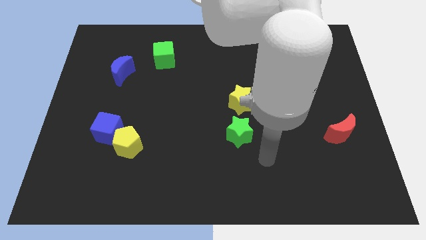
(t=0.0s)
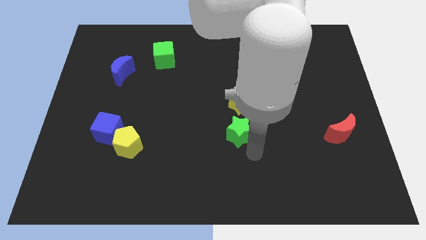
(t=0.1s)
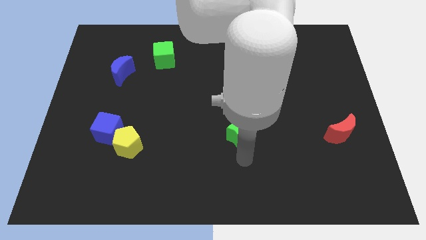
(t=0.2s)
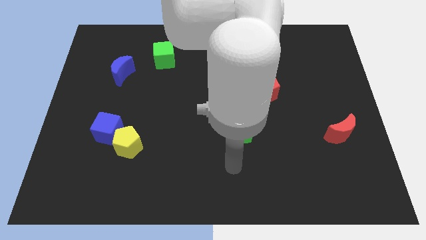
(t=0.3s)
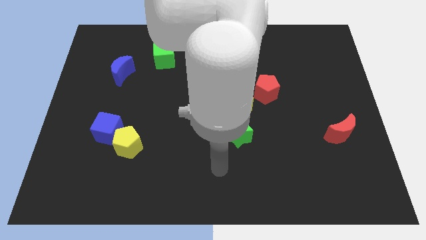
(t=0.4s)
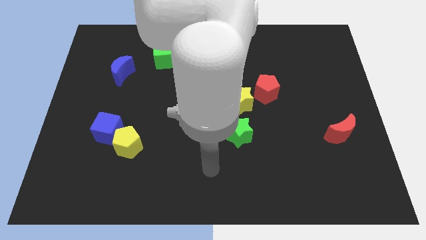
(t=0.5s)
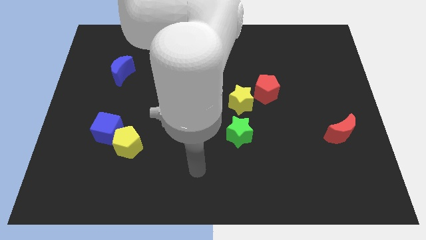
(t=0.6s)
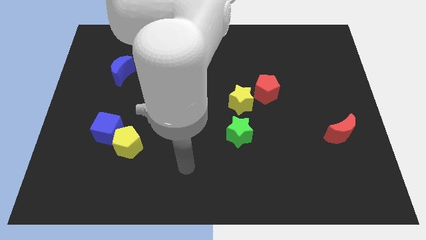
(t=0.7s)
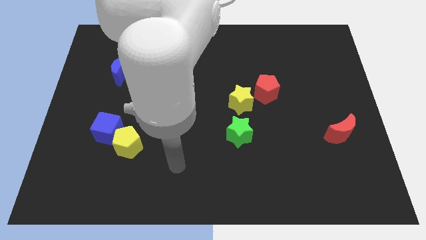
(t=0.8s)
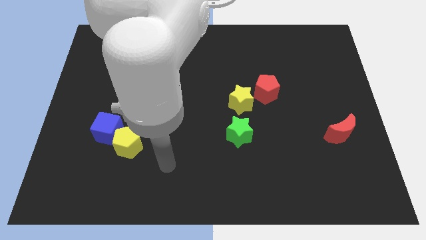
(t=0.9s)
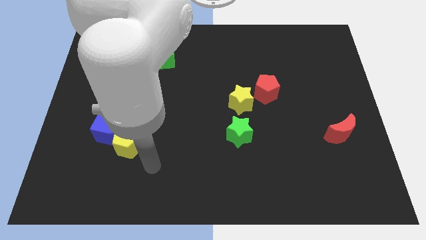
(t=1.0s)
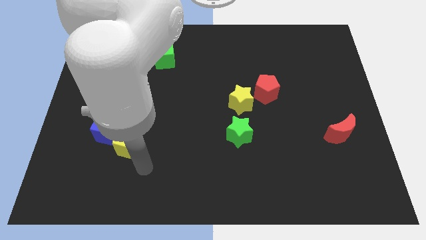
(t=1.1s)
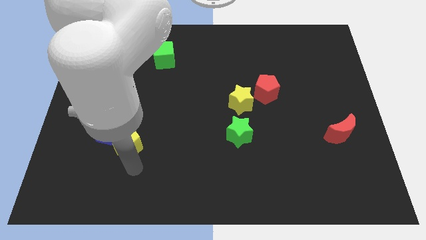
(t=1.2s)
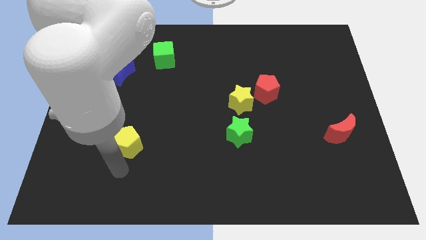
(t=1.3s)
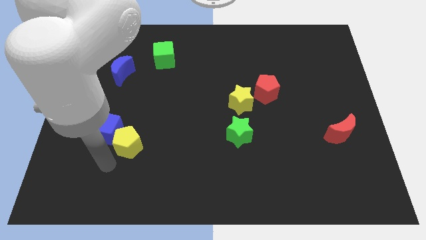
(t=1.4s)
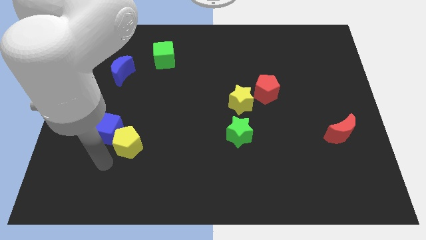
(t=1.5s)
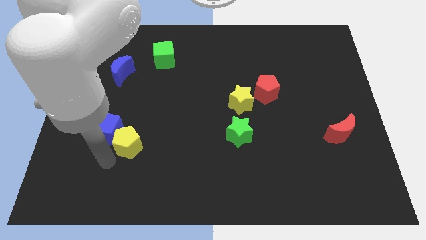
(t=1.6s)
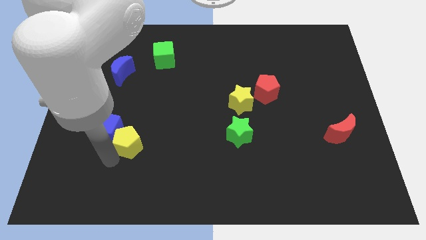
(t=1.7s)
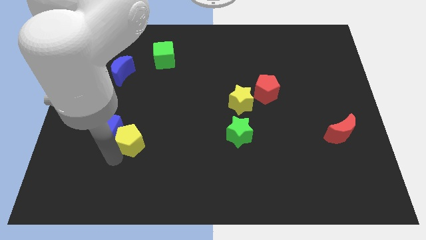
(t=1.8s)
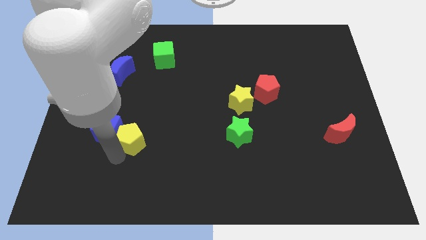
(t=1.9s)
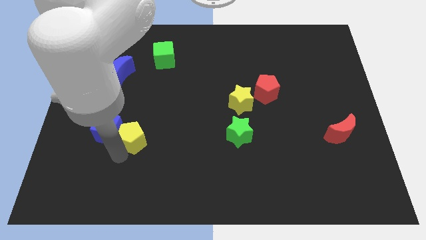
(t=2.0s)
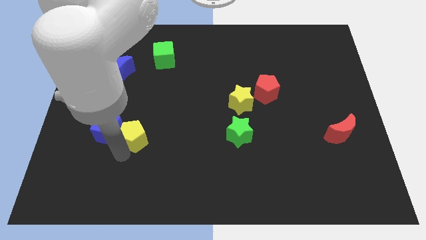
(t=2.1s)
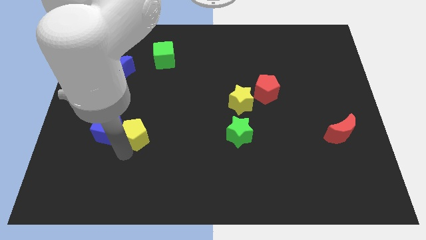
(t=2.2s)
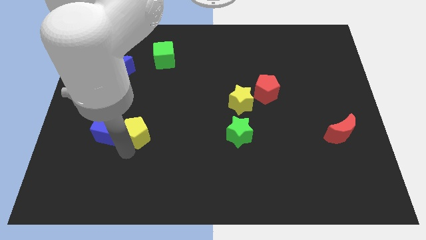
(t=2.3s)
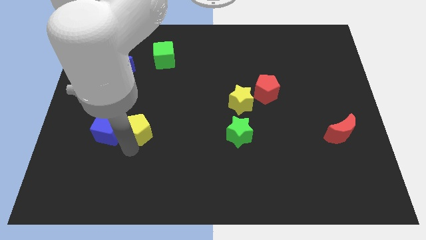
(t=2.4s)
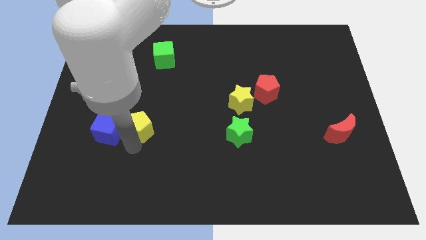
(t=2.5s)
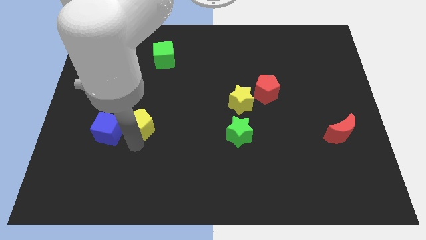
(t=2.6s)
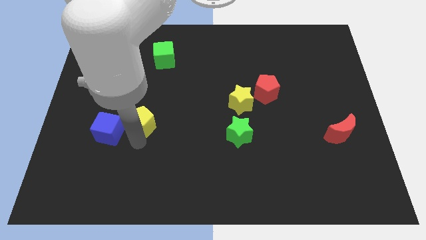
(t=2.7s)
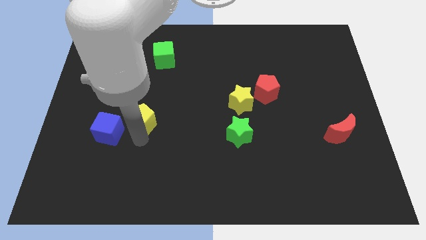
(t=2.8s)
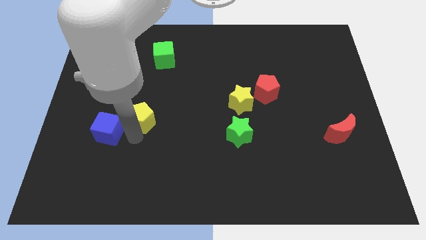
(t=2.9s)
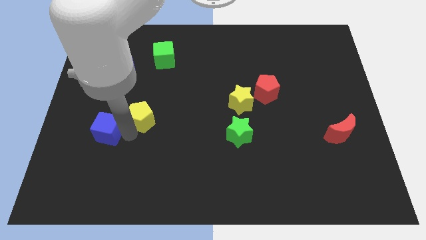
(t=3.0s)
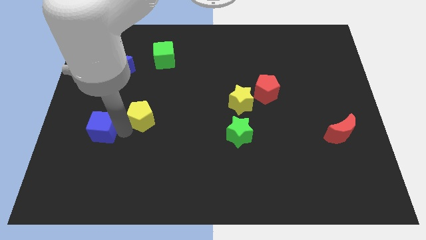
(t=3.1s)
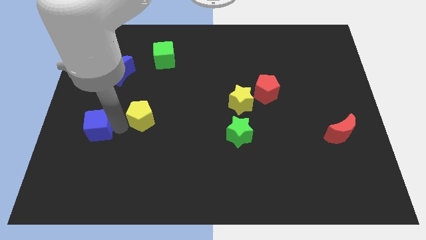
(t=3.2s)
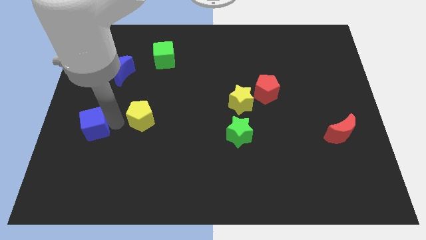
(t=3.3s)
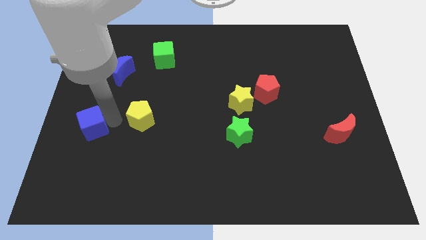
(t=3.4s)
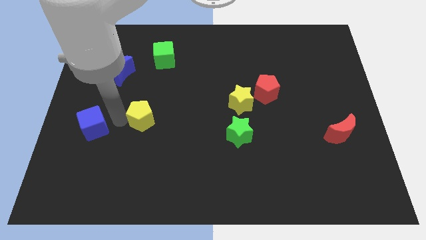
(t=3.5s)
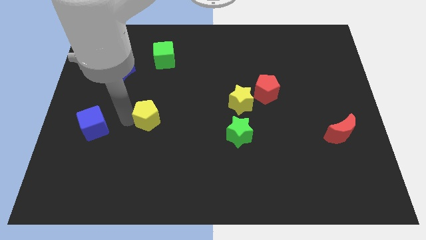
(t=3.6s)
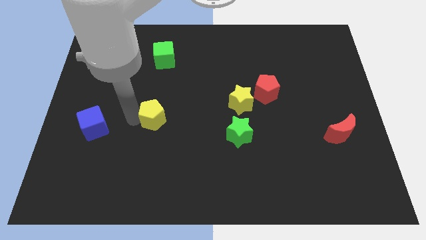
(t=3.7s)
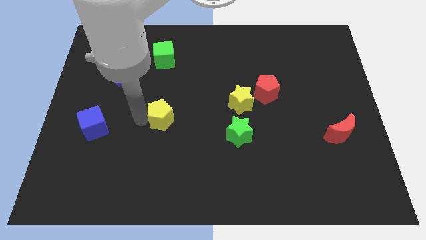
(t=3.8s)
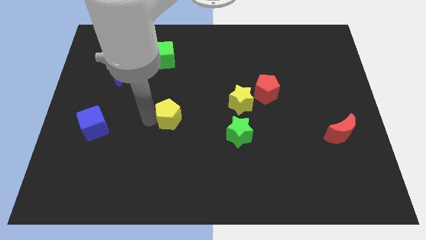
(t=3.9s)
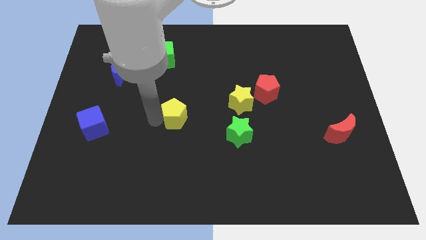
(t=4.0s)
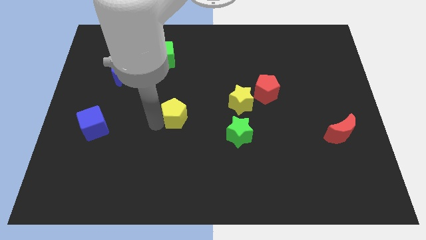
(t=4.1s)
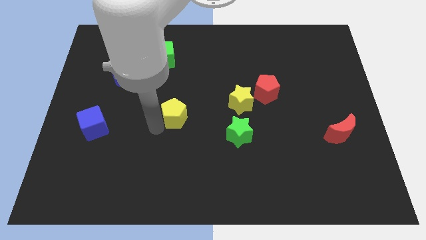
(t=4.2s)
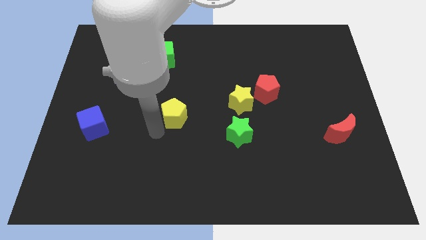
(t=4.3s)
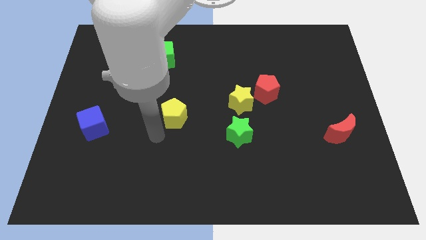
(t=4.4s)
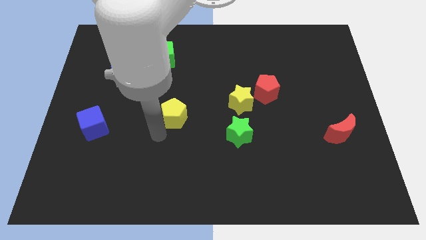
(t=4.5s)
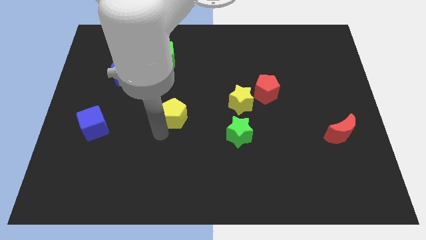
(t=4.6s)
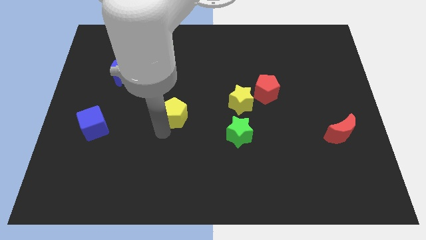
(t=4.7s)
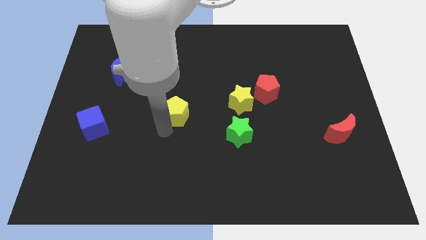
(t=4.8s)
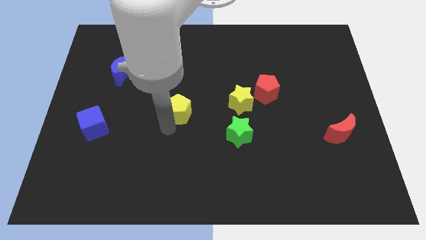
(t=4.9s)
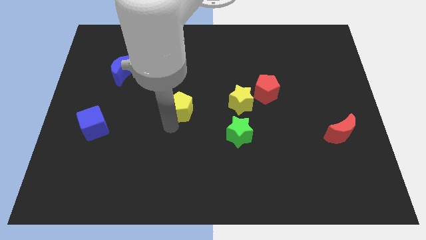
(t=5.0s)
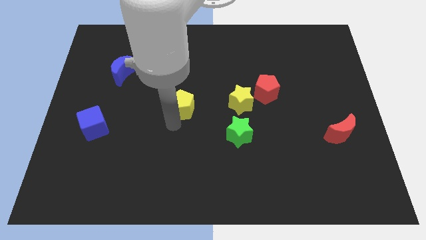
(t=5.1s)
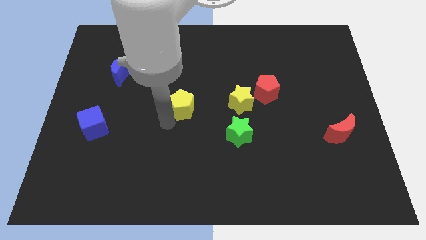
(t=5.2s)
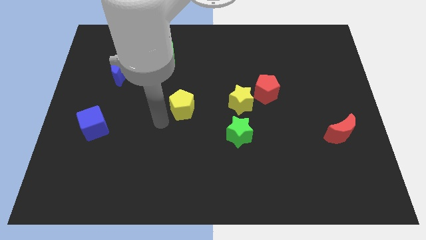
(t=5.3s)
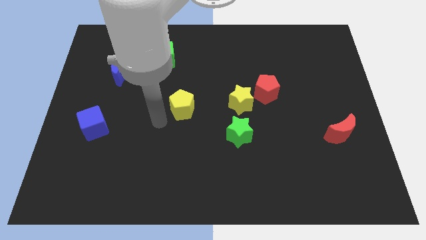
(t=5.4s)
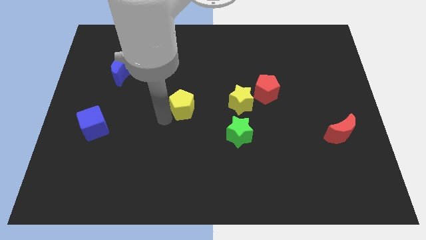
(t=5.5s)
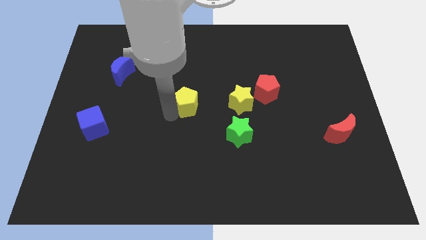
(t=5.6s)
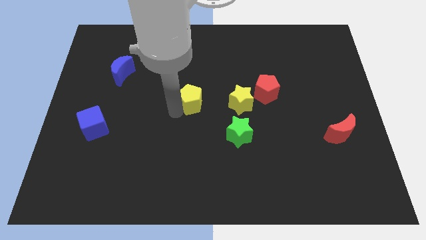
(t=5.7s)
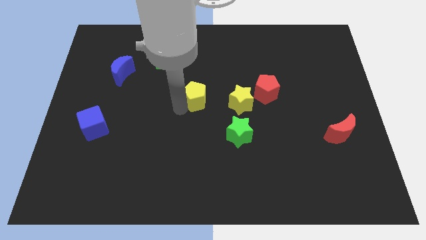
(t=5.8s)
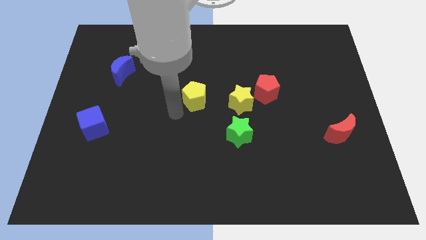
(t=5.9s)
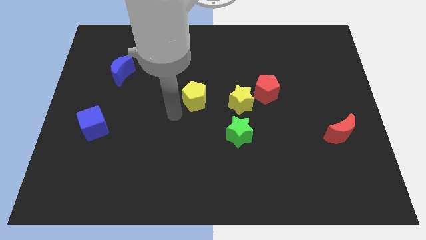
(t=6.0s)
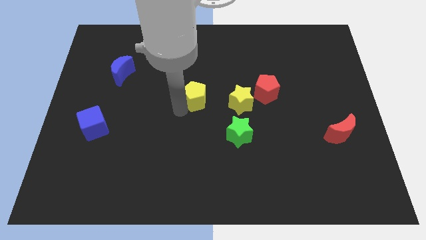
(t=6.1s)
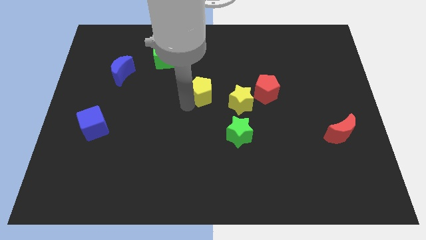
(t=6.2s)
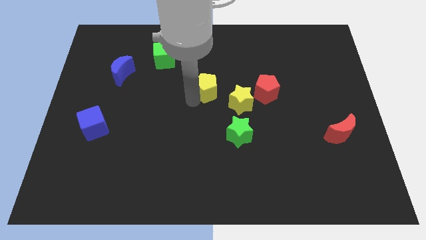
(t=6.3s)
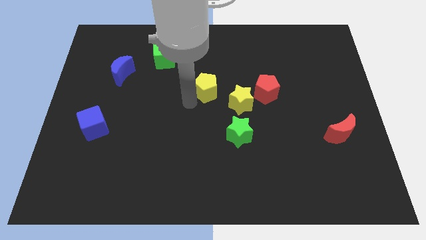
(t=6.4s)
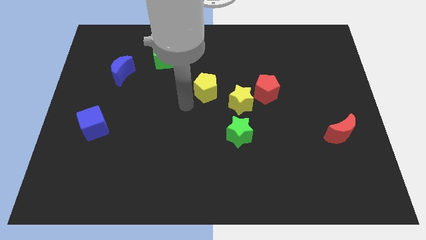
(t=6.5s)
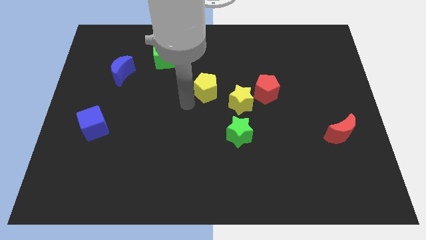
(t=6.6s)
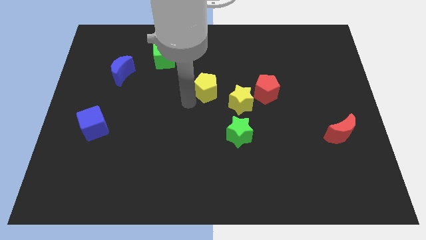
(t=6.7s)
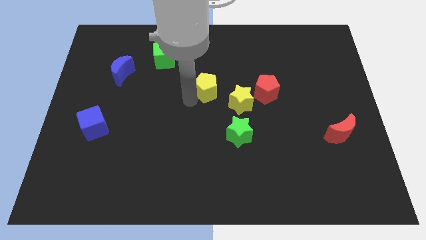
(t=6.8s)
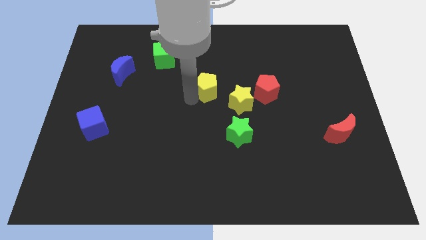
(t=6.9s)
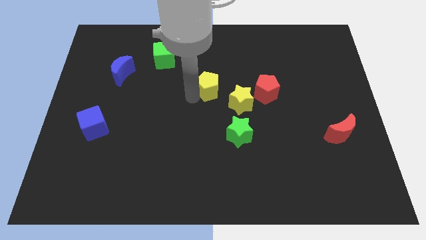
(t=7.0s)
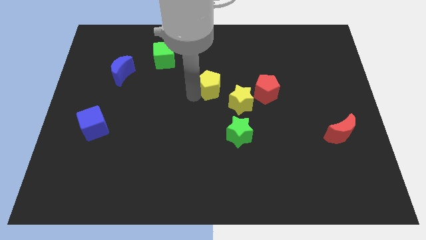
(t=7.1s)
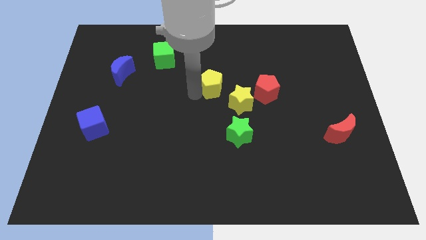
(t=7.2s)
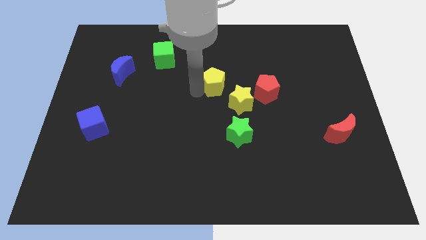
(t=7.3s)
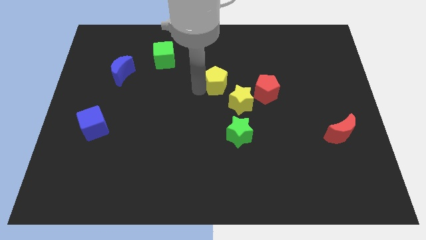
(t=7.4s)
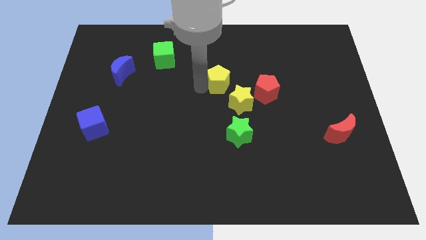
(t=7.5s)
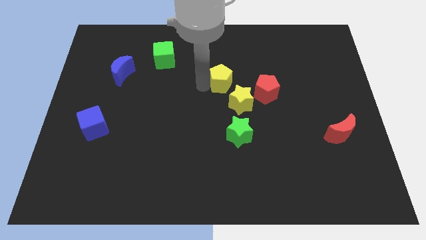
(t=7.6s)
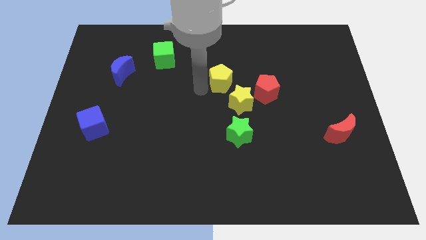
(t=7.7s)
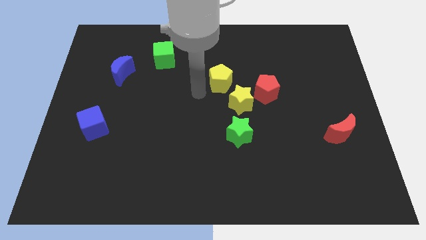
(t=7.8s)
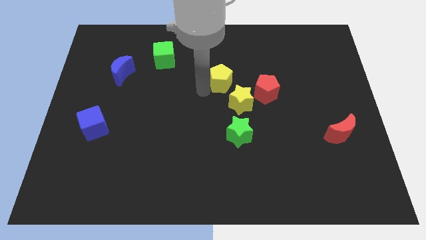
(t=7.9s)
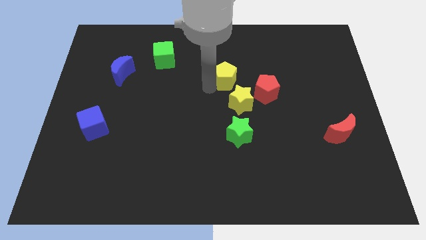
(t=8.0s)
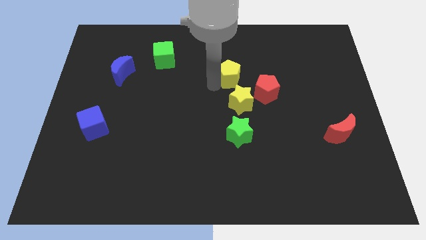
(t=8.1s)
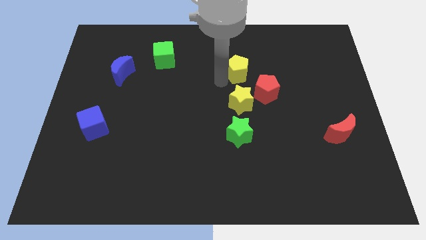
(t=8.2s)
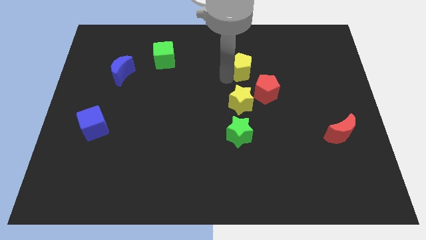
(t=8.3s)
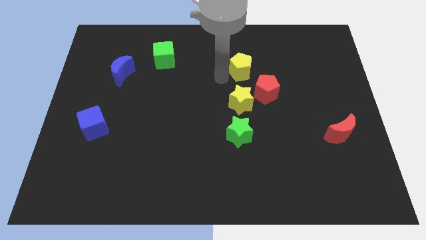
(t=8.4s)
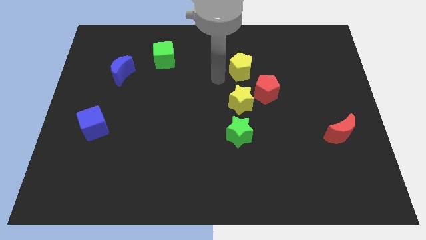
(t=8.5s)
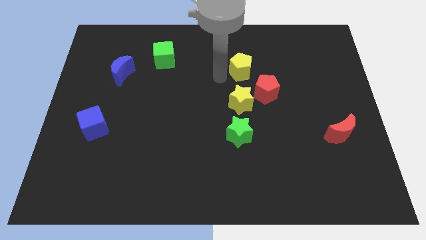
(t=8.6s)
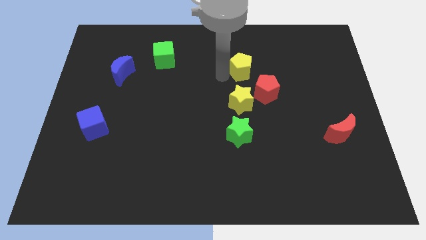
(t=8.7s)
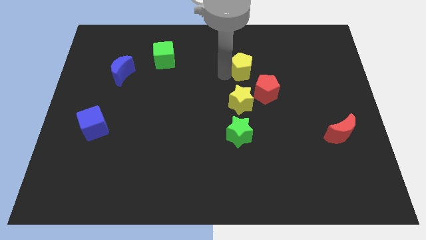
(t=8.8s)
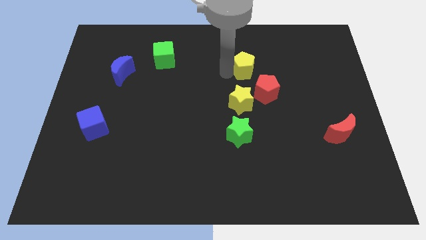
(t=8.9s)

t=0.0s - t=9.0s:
slide the yellow pentagon above the red pentagon
